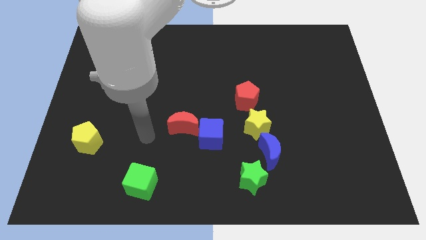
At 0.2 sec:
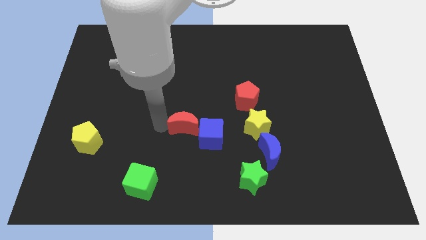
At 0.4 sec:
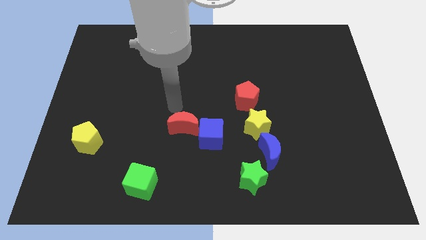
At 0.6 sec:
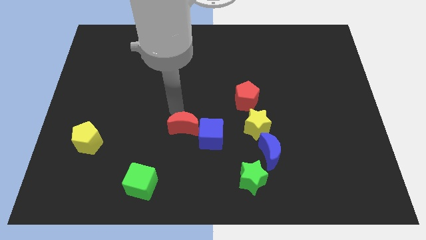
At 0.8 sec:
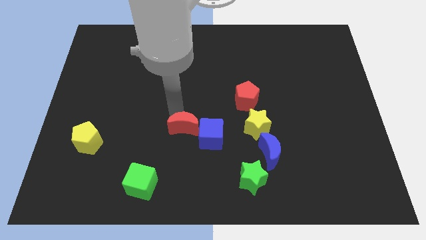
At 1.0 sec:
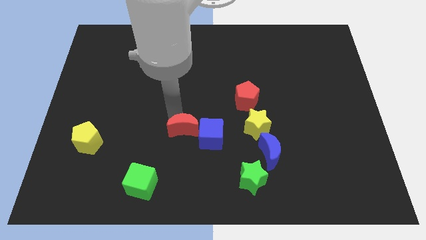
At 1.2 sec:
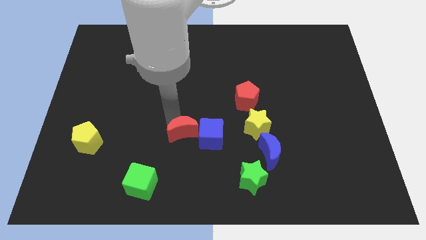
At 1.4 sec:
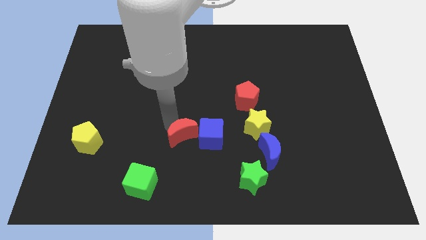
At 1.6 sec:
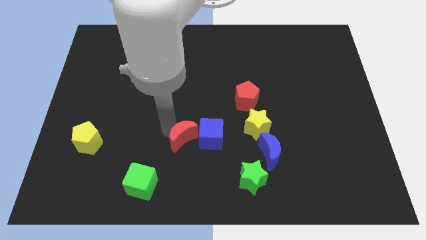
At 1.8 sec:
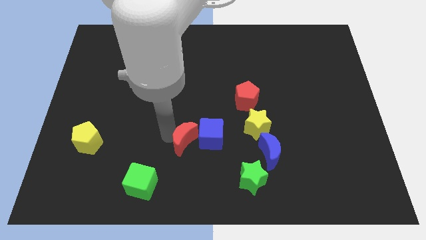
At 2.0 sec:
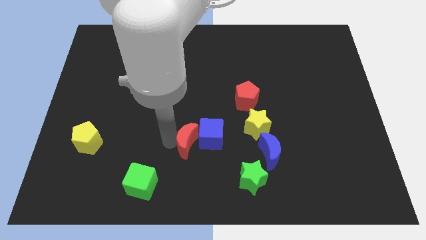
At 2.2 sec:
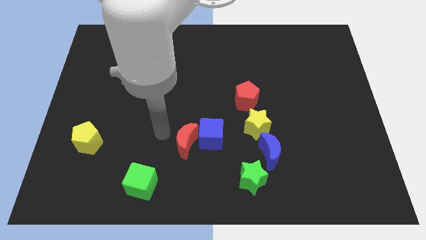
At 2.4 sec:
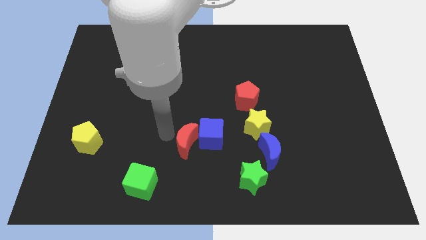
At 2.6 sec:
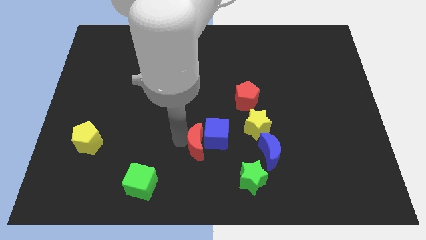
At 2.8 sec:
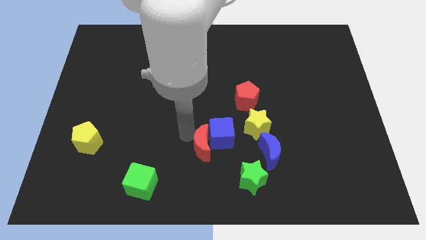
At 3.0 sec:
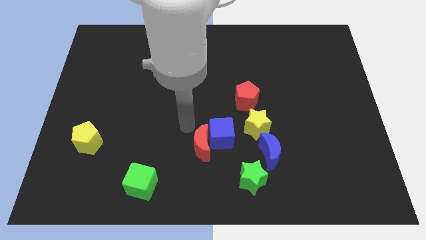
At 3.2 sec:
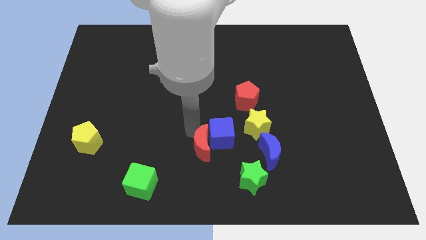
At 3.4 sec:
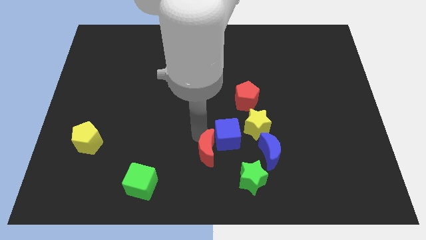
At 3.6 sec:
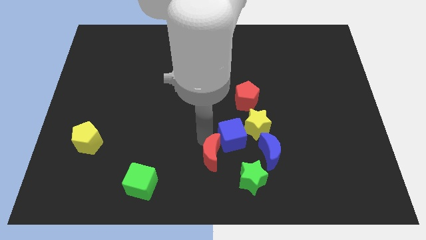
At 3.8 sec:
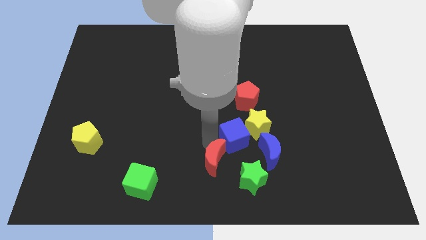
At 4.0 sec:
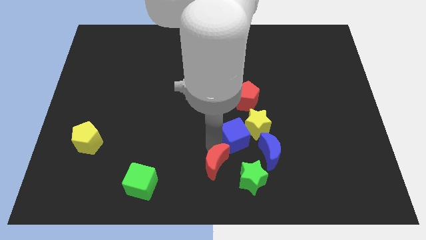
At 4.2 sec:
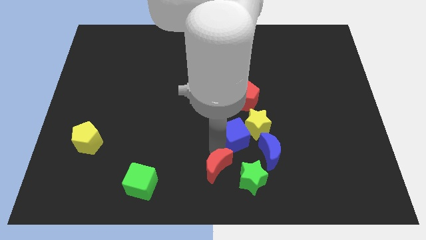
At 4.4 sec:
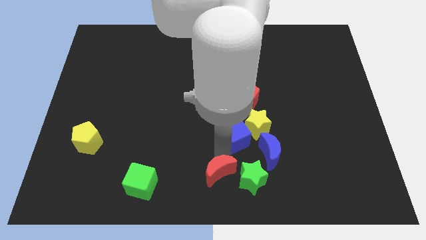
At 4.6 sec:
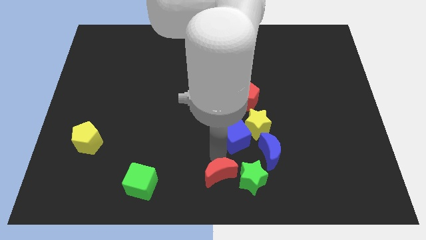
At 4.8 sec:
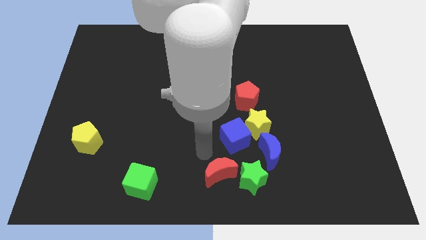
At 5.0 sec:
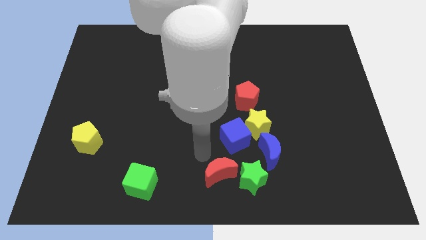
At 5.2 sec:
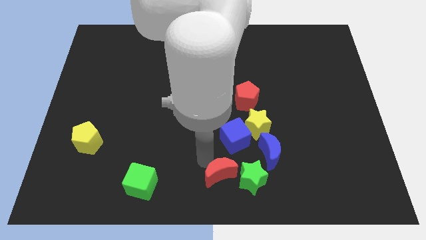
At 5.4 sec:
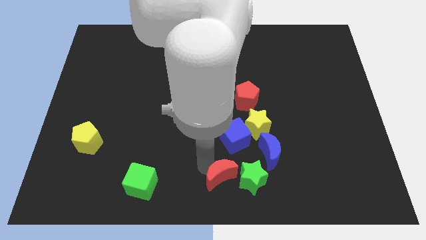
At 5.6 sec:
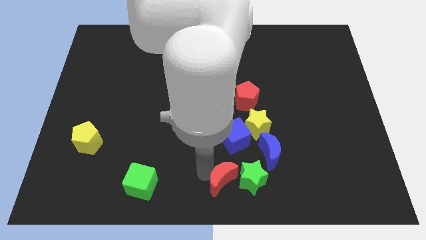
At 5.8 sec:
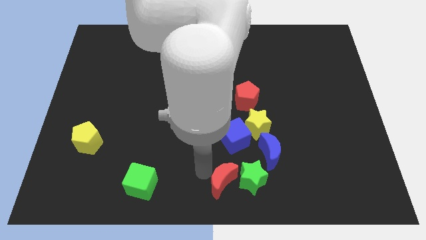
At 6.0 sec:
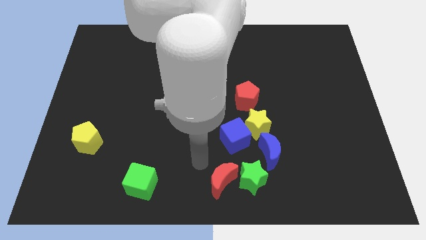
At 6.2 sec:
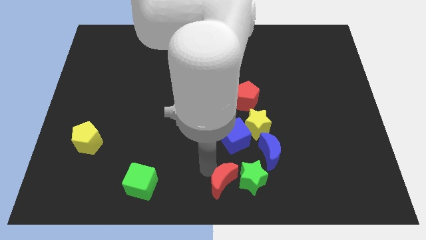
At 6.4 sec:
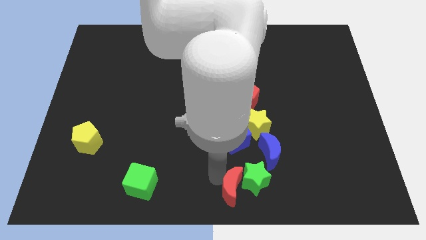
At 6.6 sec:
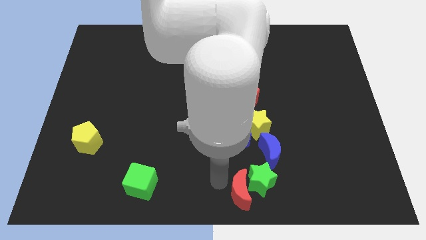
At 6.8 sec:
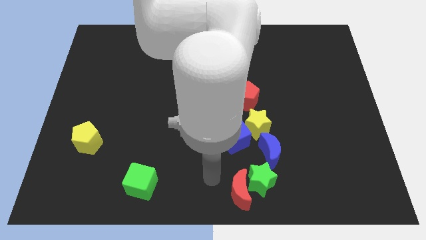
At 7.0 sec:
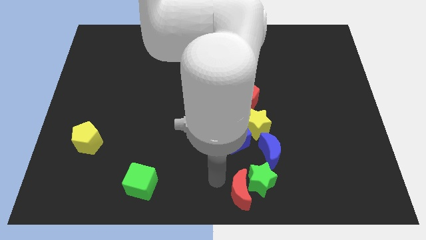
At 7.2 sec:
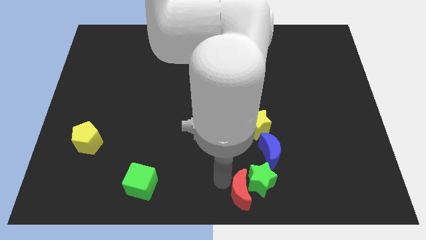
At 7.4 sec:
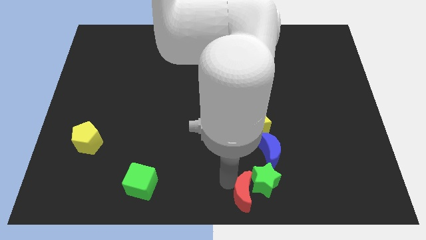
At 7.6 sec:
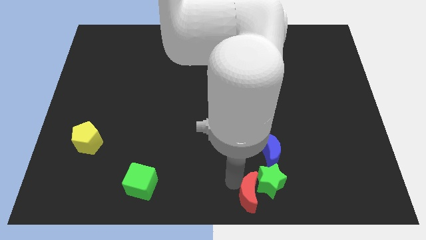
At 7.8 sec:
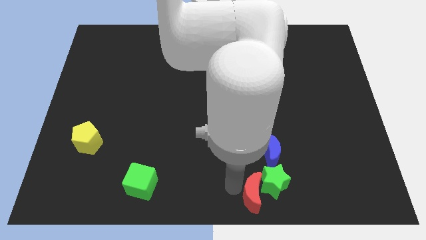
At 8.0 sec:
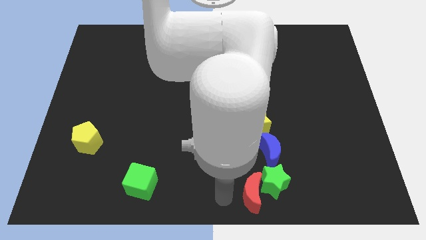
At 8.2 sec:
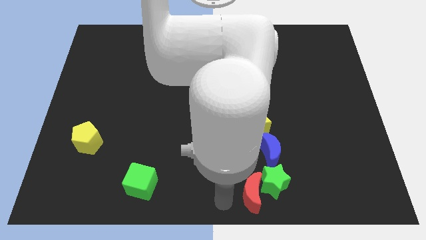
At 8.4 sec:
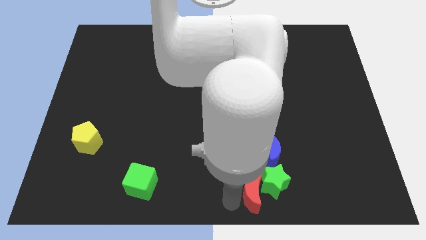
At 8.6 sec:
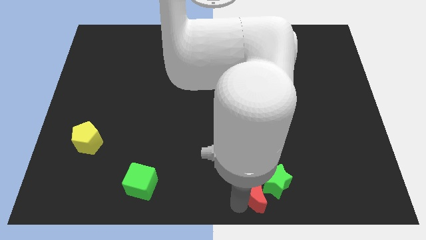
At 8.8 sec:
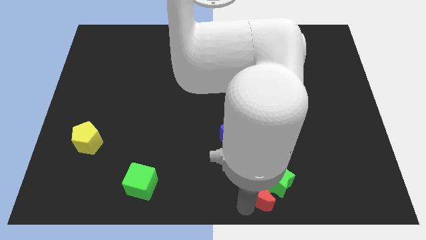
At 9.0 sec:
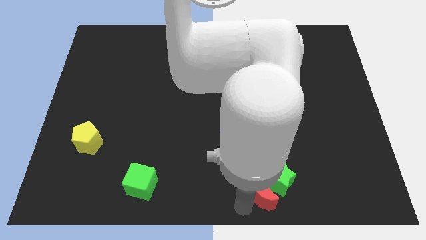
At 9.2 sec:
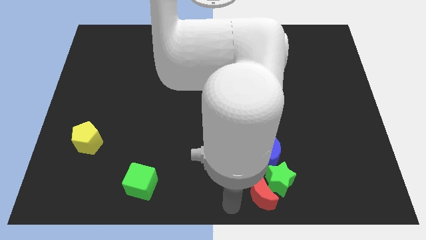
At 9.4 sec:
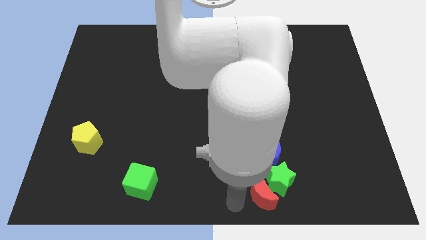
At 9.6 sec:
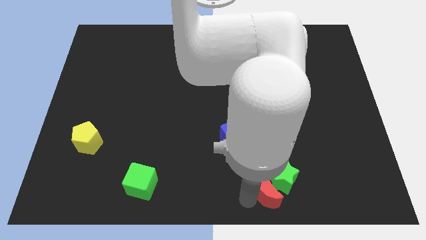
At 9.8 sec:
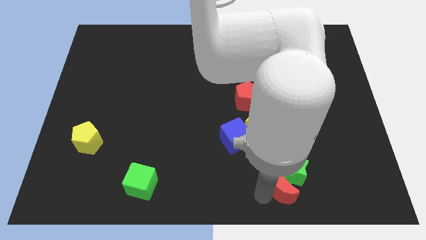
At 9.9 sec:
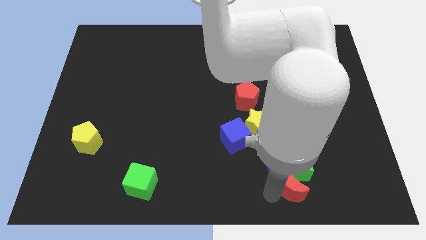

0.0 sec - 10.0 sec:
move the red moon diagonally down and to the right of the blue moon

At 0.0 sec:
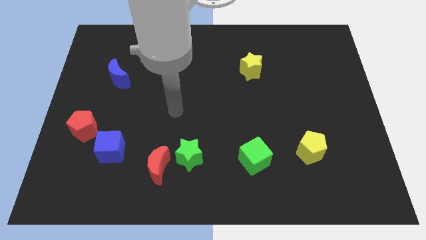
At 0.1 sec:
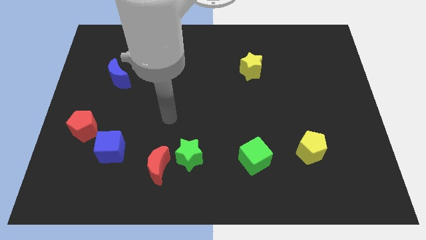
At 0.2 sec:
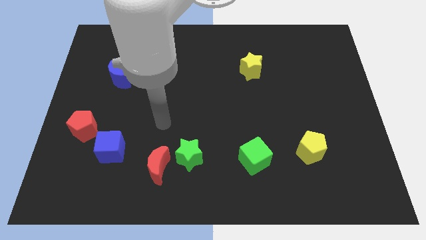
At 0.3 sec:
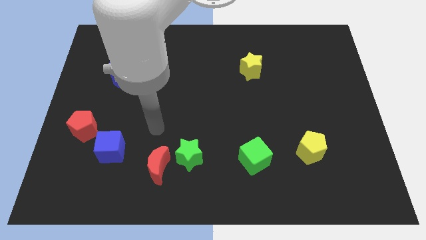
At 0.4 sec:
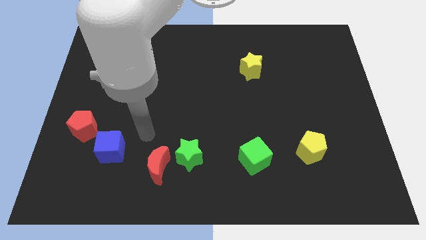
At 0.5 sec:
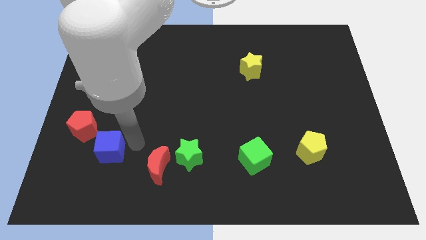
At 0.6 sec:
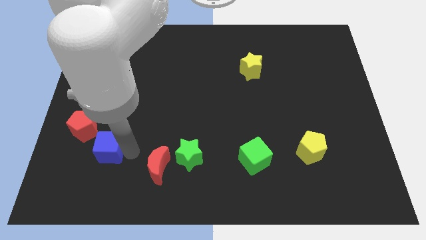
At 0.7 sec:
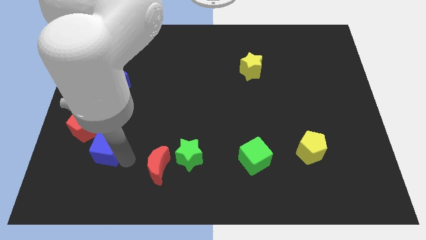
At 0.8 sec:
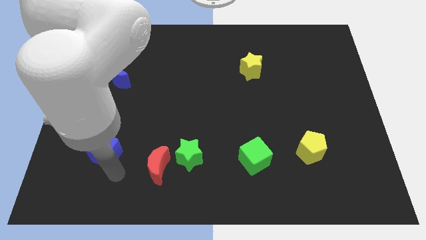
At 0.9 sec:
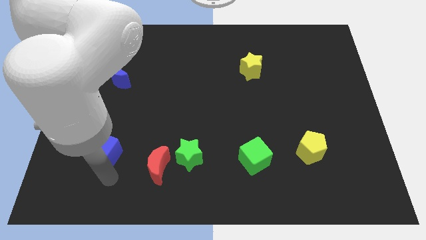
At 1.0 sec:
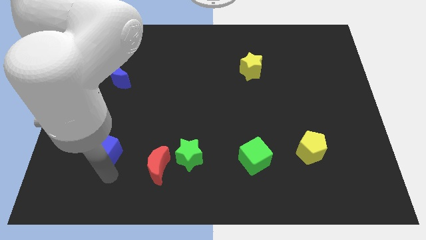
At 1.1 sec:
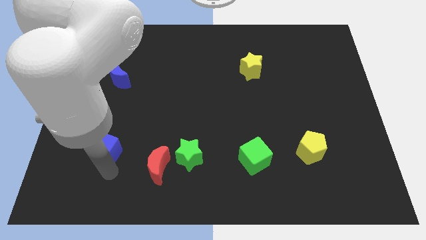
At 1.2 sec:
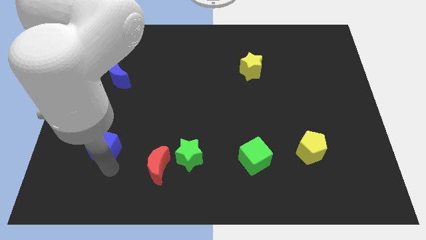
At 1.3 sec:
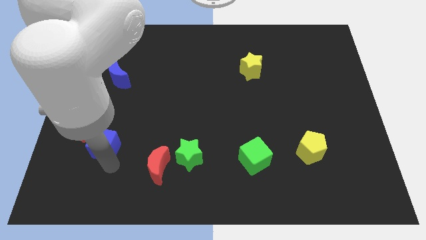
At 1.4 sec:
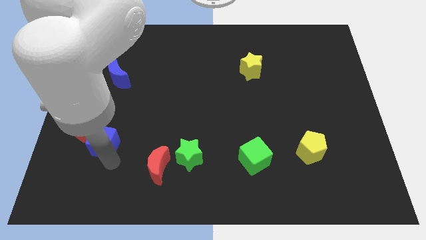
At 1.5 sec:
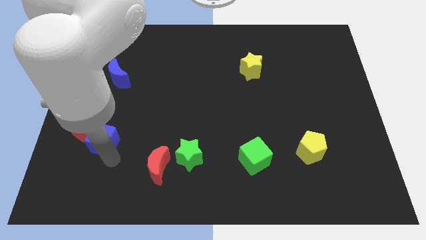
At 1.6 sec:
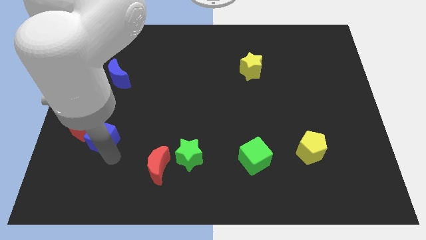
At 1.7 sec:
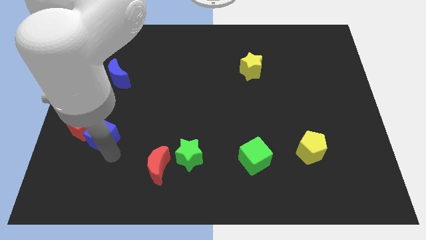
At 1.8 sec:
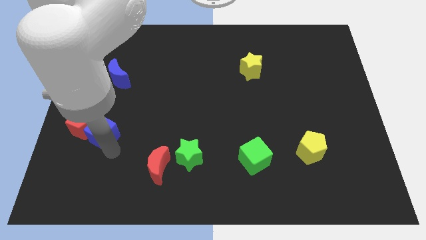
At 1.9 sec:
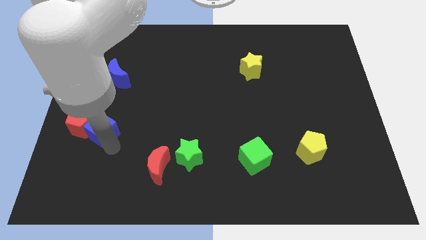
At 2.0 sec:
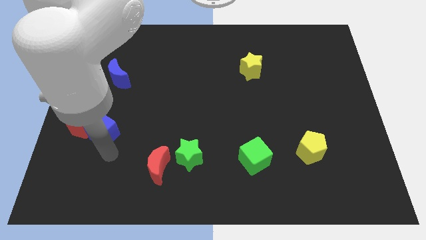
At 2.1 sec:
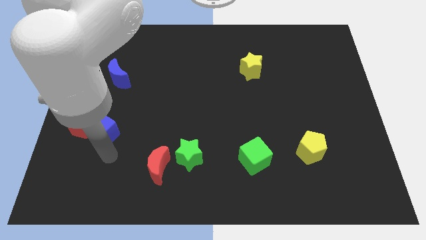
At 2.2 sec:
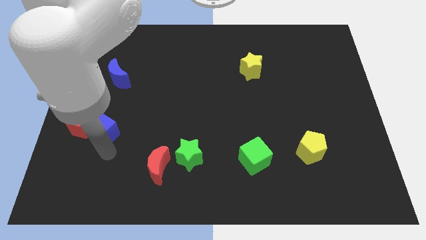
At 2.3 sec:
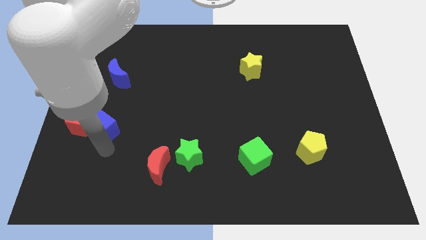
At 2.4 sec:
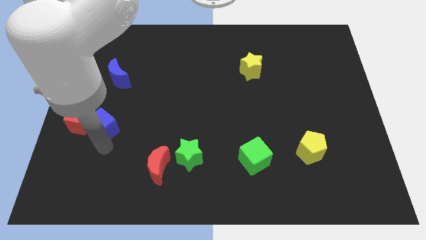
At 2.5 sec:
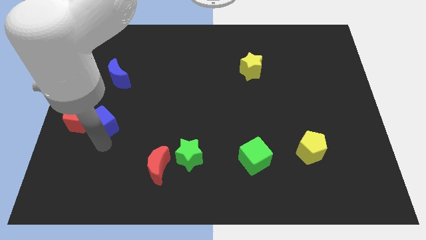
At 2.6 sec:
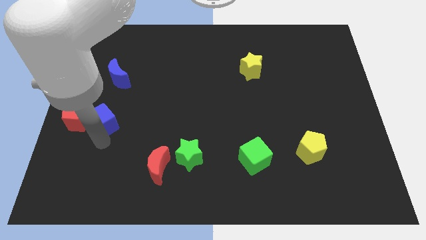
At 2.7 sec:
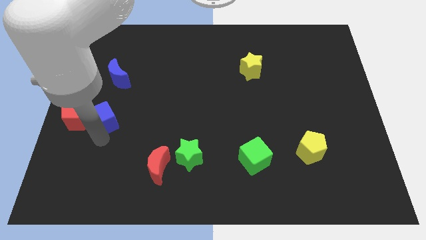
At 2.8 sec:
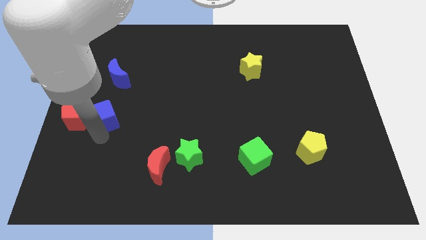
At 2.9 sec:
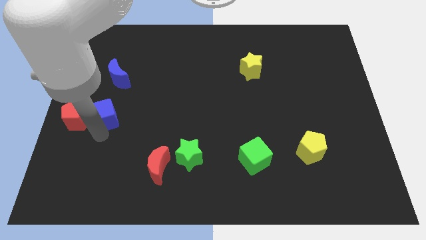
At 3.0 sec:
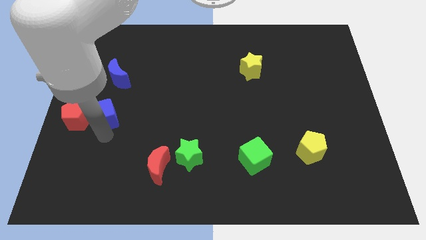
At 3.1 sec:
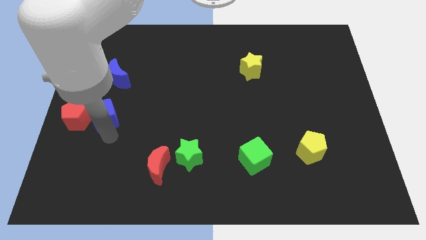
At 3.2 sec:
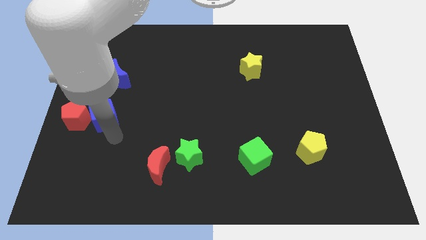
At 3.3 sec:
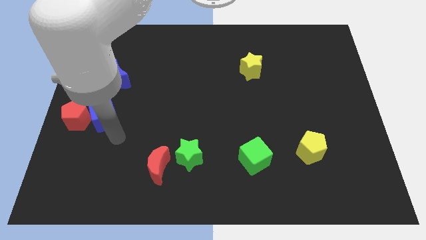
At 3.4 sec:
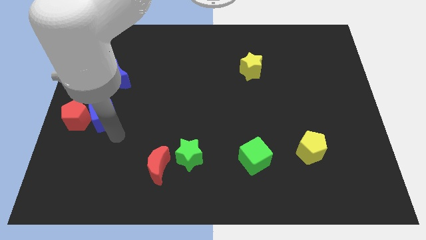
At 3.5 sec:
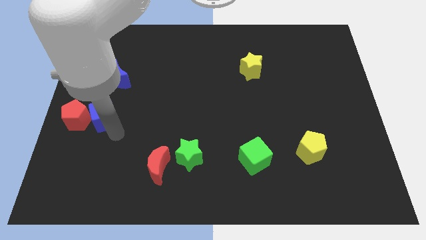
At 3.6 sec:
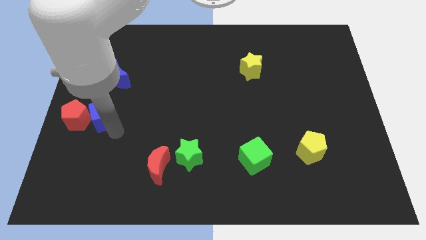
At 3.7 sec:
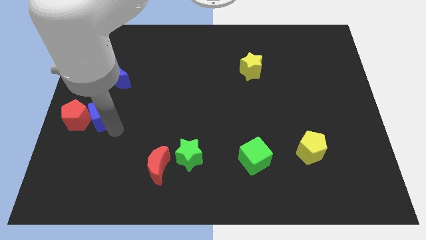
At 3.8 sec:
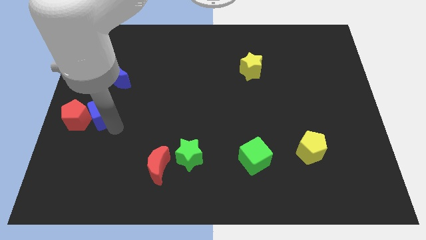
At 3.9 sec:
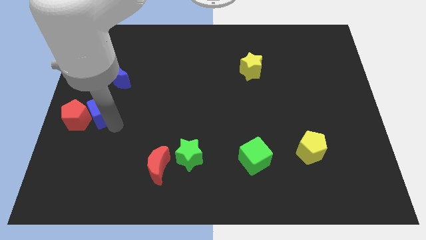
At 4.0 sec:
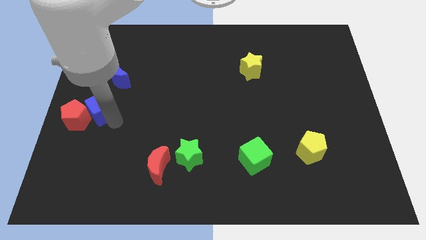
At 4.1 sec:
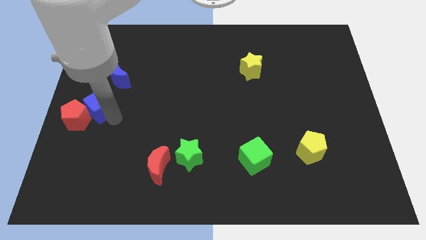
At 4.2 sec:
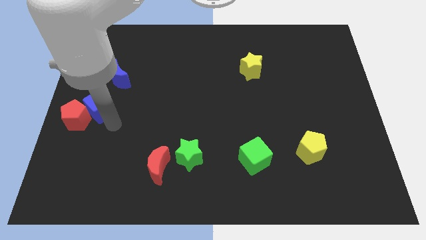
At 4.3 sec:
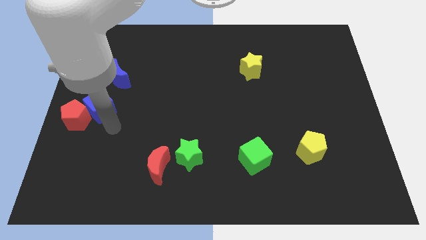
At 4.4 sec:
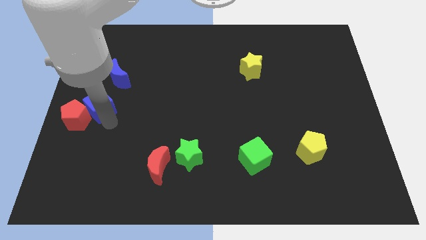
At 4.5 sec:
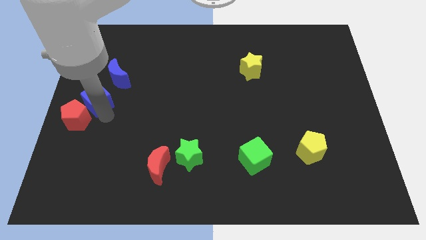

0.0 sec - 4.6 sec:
push the blue cube to the top side of the red pentagon
